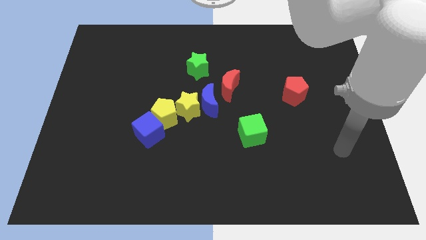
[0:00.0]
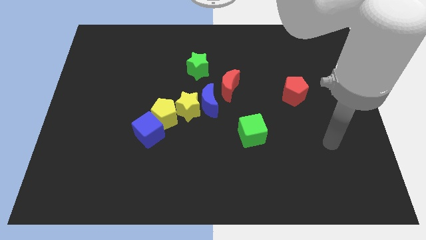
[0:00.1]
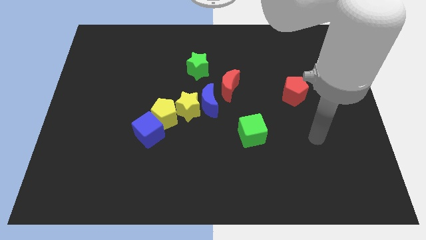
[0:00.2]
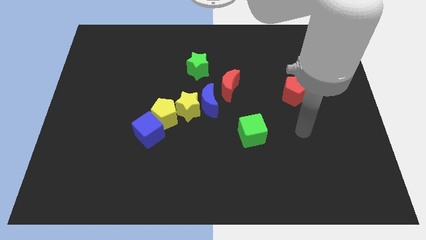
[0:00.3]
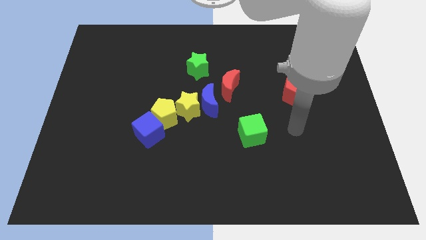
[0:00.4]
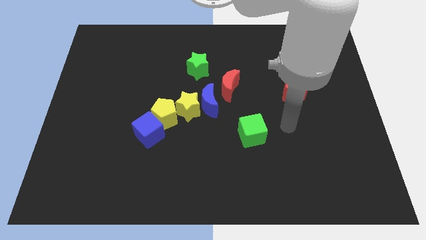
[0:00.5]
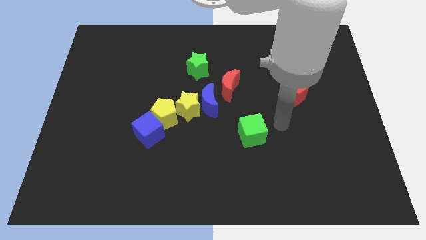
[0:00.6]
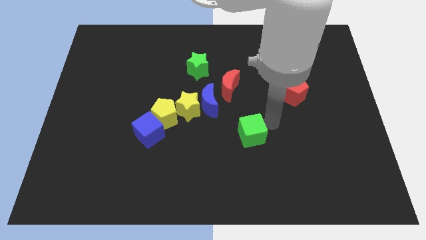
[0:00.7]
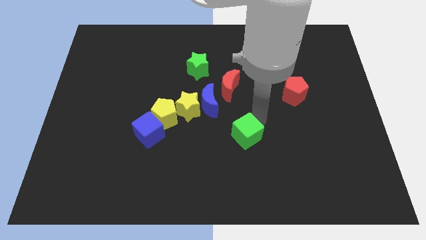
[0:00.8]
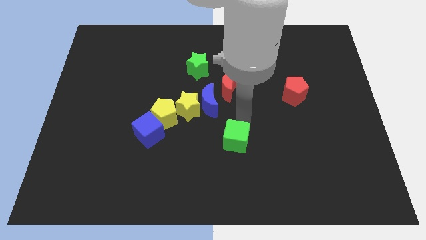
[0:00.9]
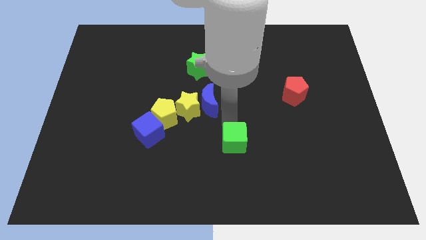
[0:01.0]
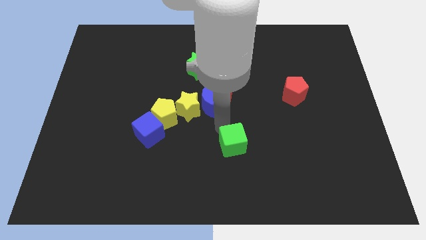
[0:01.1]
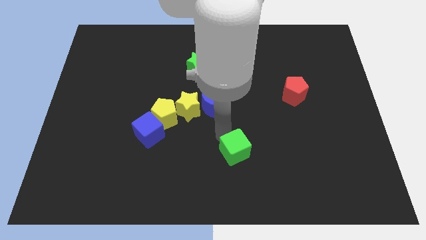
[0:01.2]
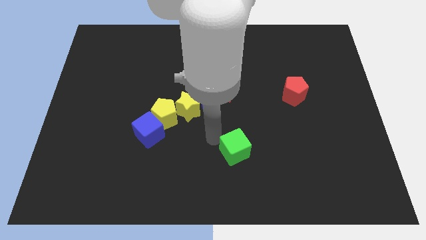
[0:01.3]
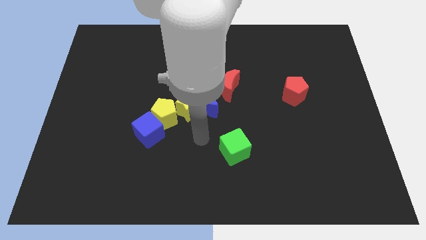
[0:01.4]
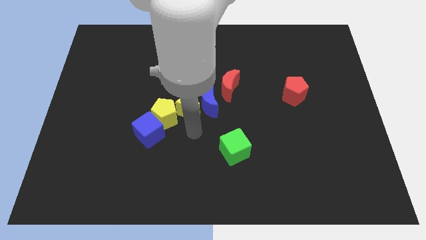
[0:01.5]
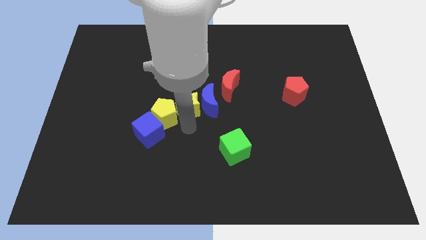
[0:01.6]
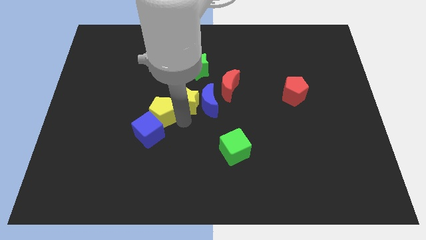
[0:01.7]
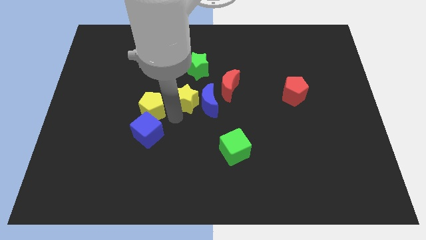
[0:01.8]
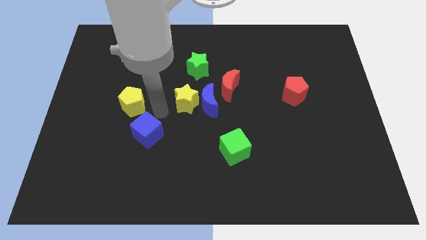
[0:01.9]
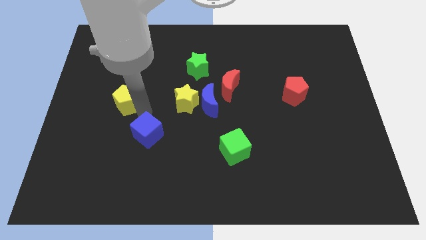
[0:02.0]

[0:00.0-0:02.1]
separate the blue cube from the yellow pentagon

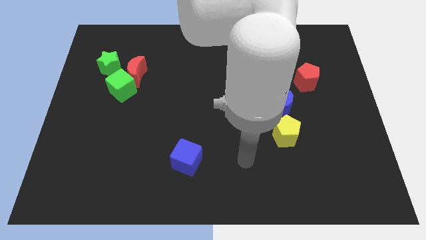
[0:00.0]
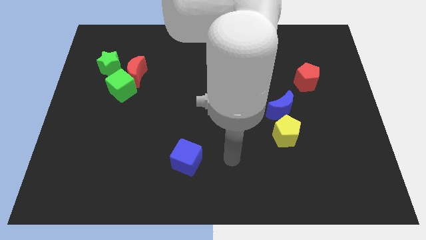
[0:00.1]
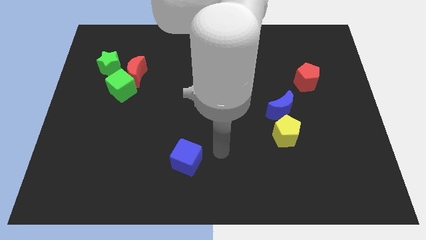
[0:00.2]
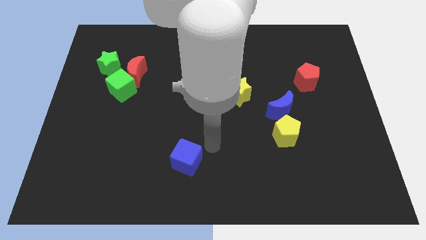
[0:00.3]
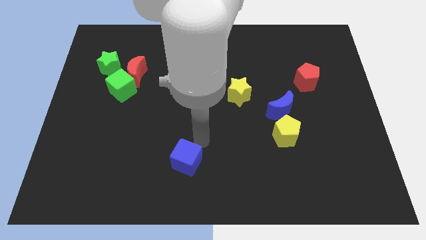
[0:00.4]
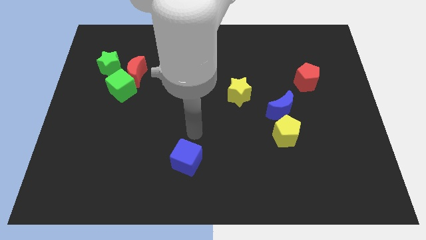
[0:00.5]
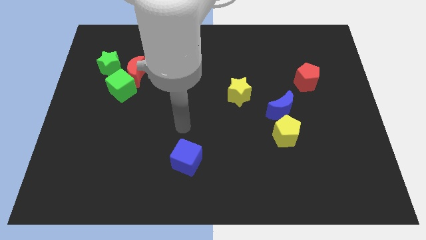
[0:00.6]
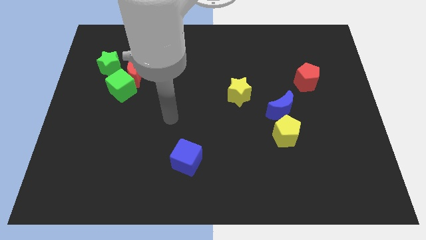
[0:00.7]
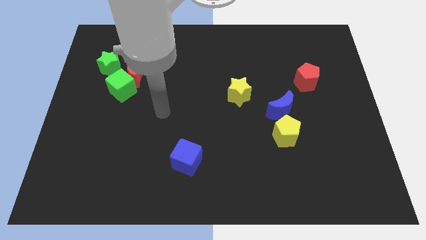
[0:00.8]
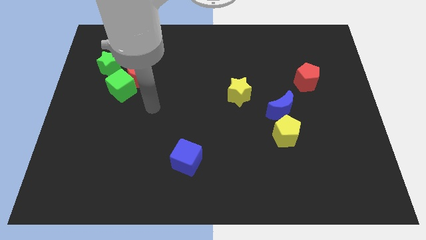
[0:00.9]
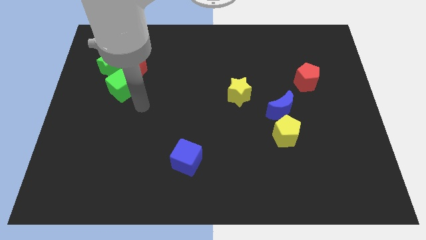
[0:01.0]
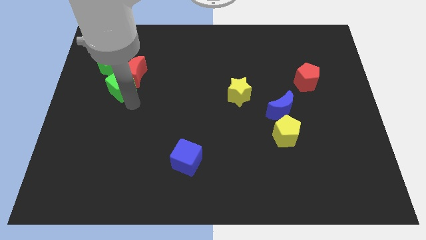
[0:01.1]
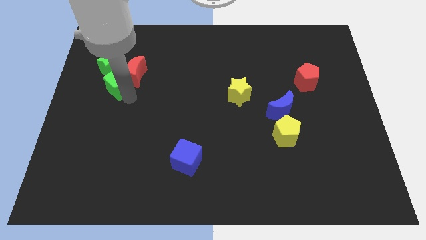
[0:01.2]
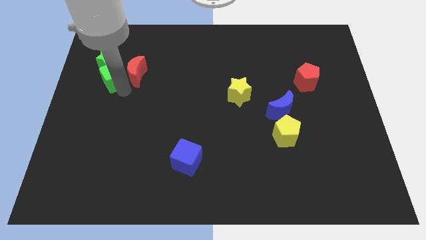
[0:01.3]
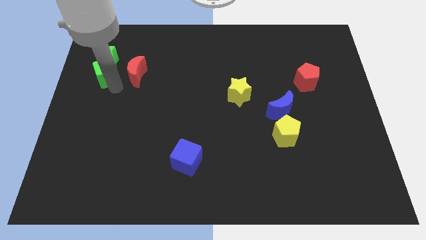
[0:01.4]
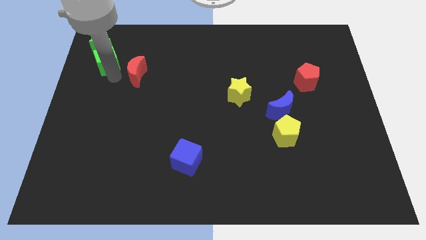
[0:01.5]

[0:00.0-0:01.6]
move the red moon away from the green cube and green star

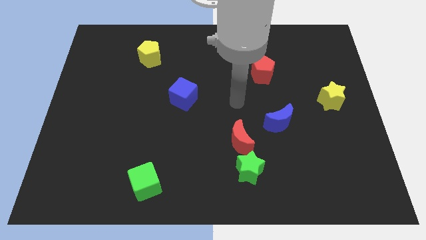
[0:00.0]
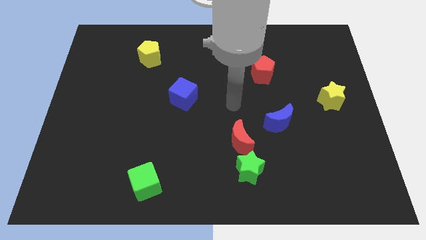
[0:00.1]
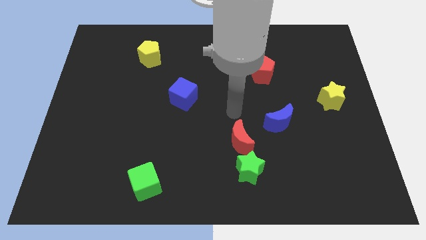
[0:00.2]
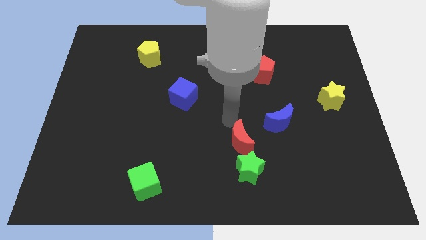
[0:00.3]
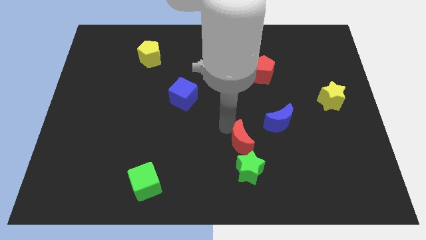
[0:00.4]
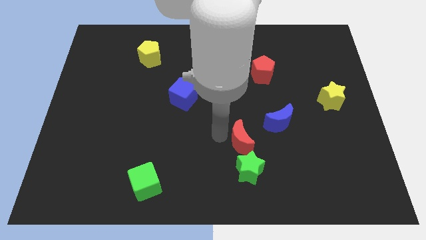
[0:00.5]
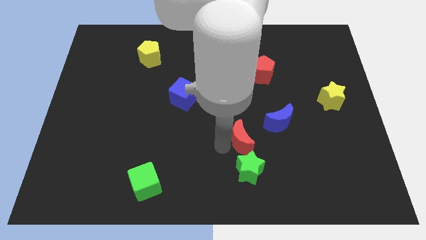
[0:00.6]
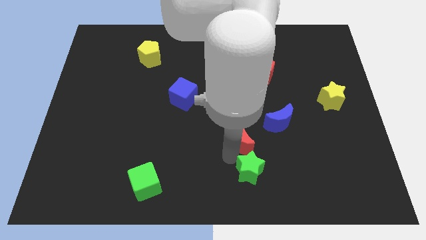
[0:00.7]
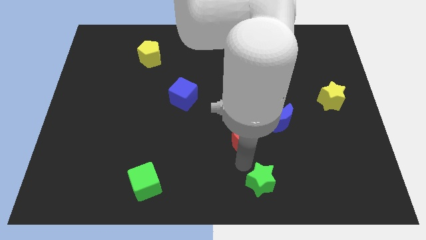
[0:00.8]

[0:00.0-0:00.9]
pull the red moon apart from the green star

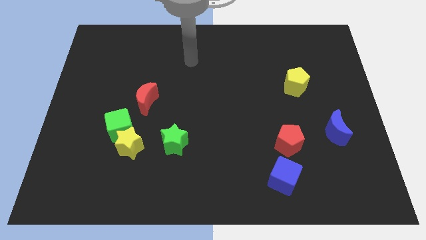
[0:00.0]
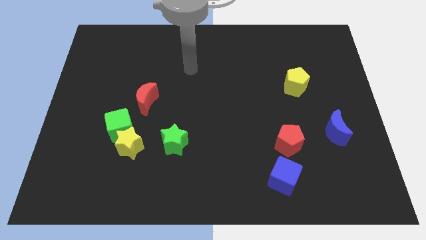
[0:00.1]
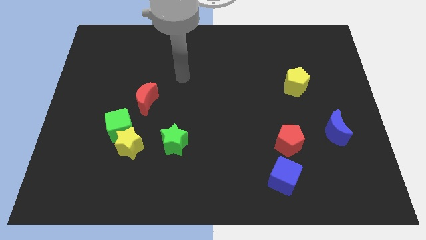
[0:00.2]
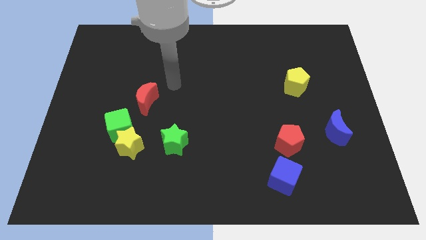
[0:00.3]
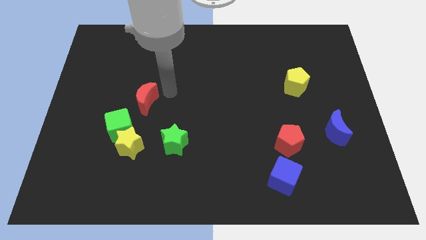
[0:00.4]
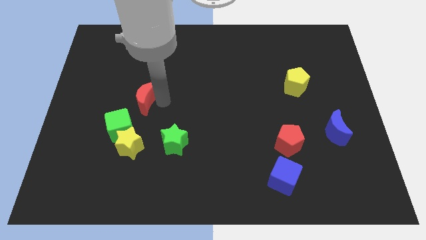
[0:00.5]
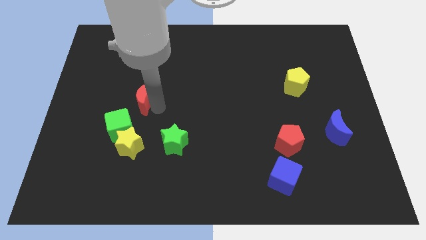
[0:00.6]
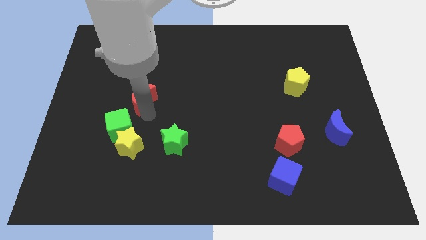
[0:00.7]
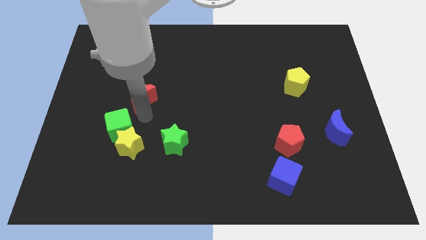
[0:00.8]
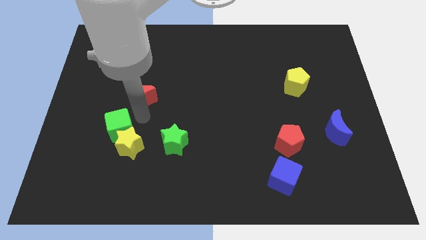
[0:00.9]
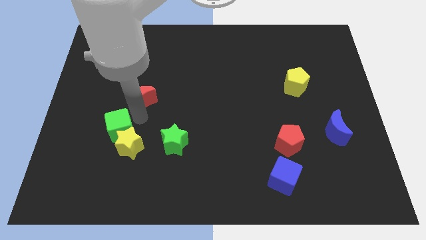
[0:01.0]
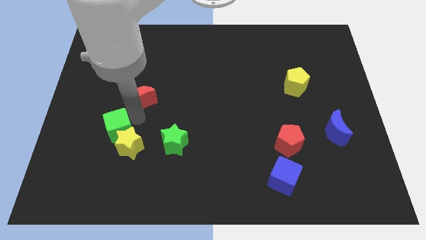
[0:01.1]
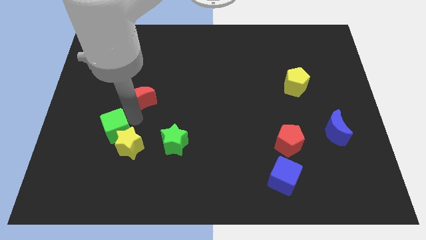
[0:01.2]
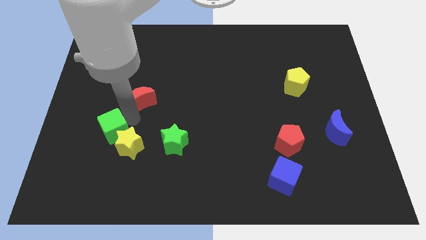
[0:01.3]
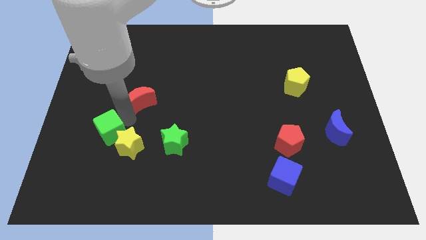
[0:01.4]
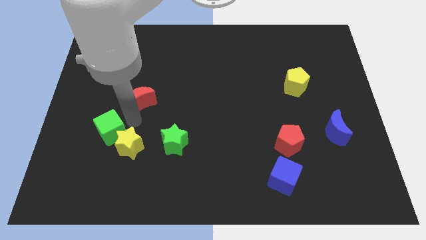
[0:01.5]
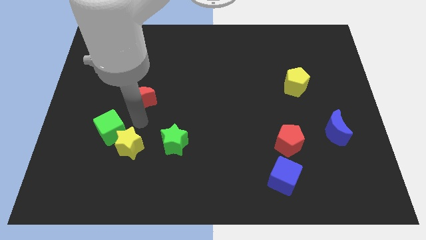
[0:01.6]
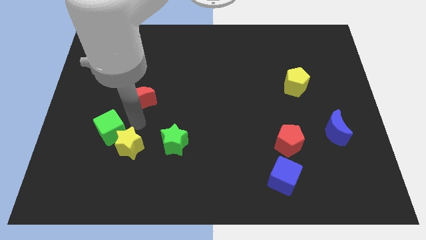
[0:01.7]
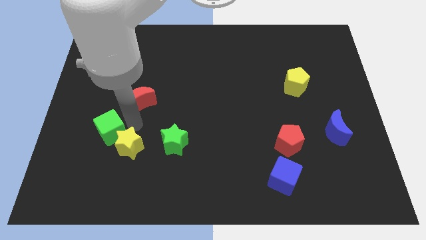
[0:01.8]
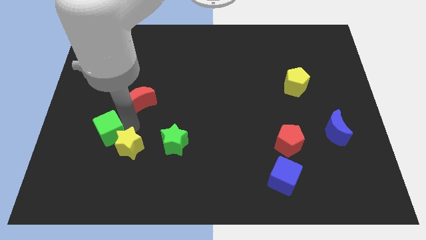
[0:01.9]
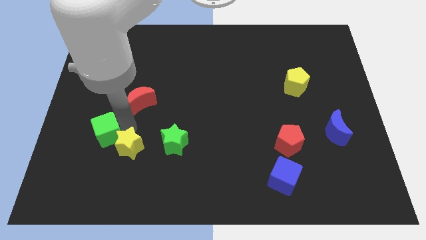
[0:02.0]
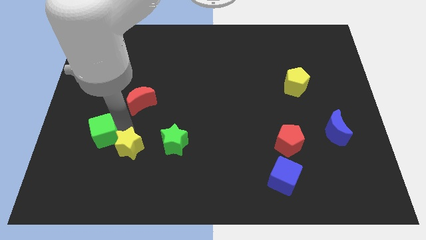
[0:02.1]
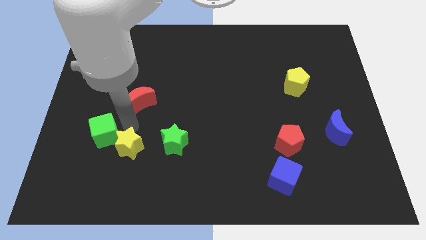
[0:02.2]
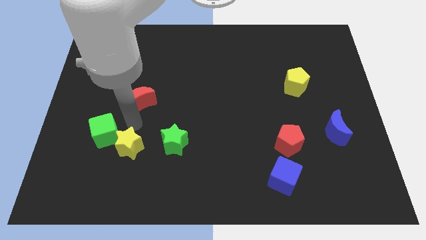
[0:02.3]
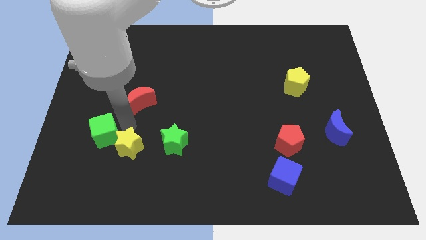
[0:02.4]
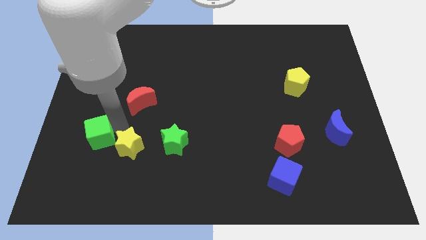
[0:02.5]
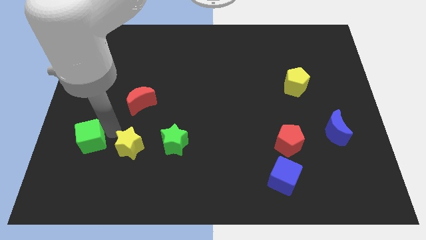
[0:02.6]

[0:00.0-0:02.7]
pull the green cube apart from the yellow star and red moon

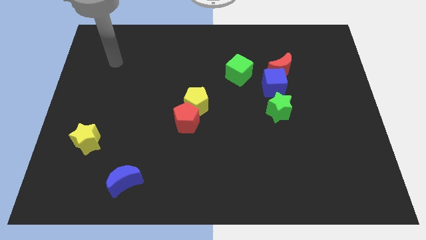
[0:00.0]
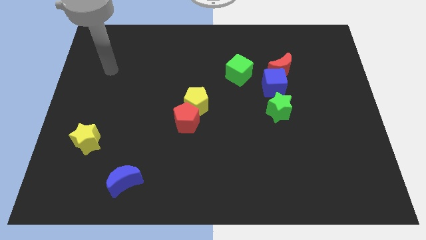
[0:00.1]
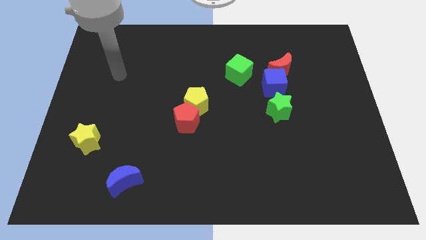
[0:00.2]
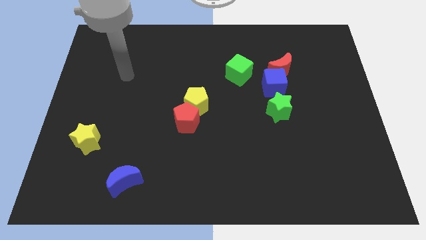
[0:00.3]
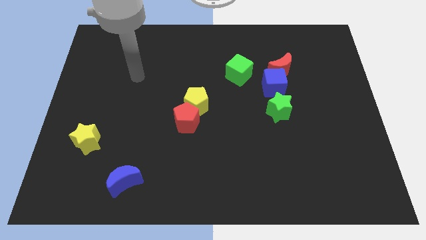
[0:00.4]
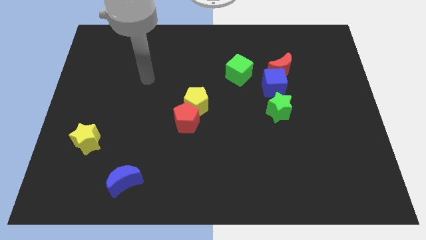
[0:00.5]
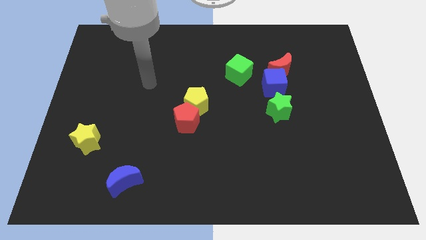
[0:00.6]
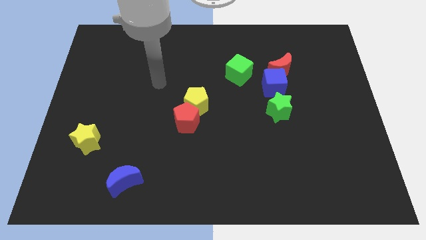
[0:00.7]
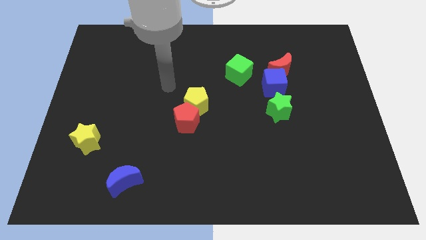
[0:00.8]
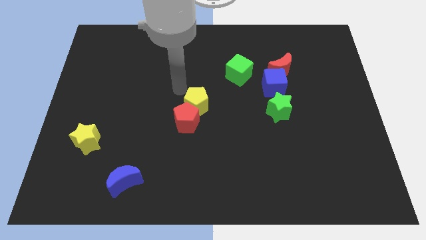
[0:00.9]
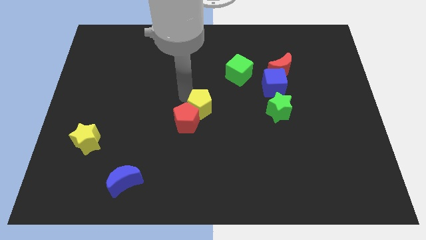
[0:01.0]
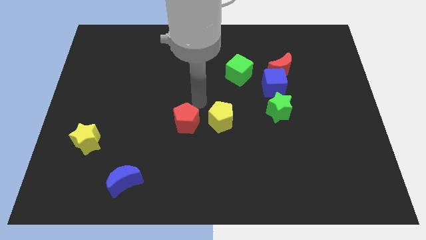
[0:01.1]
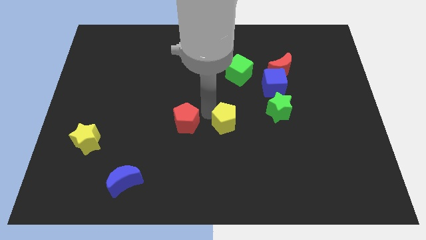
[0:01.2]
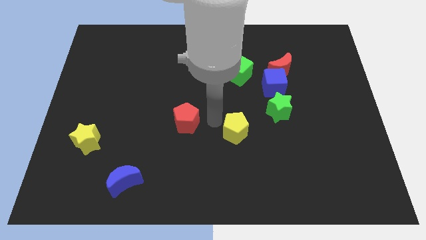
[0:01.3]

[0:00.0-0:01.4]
separate the red pentagon from the yellow pentagon

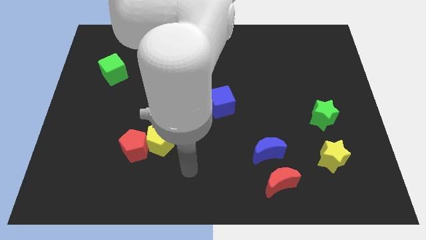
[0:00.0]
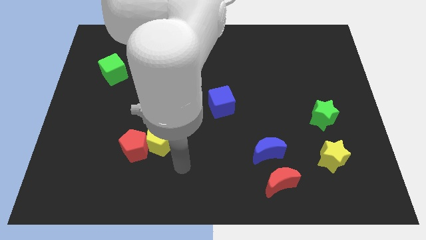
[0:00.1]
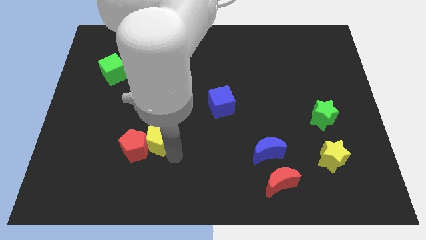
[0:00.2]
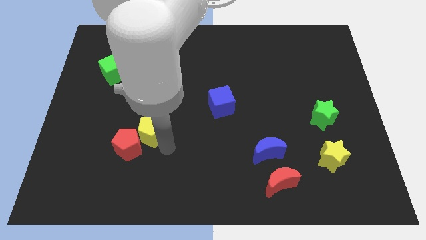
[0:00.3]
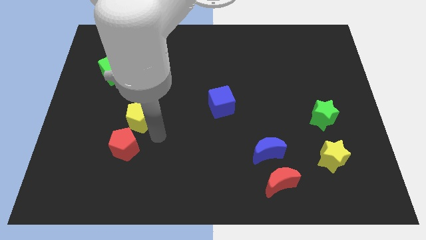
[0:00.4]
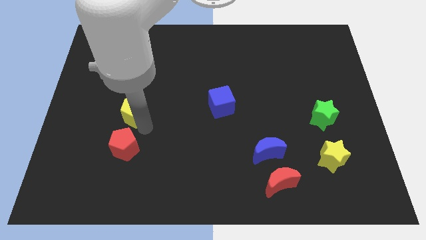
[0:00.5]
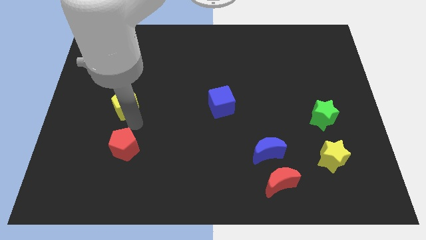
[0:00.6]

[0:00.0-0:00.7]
move the red pentagon away from the yellow pentagon
